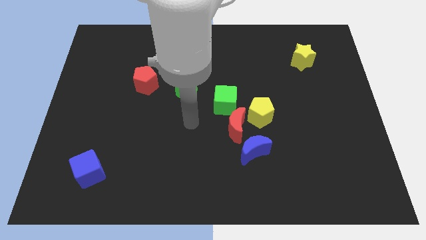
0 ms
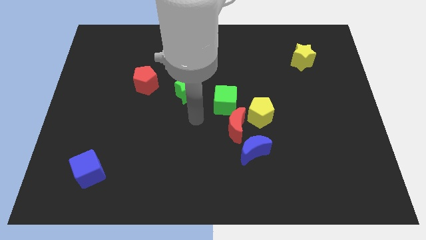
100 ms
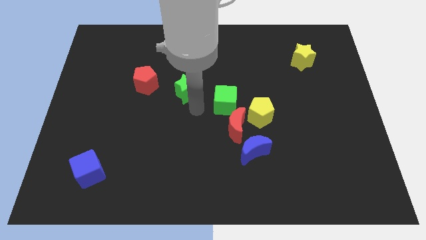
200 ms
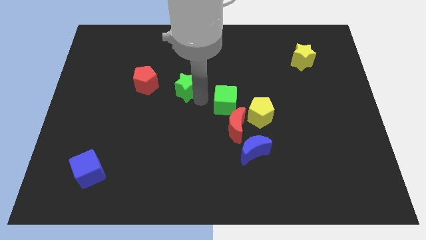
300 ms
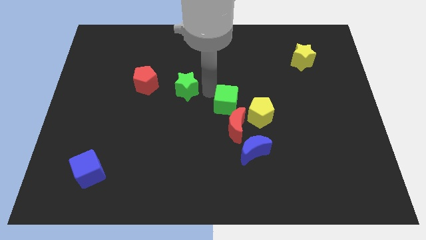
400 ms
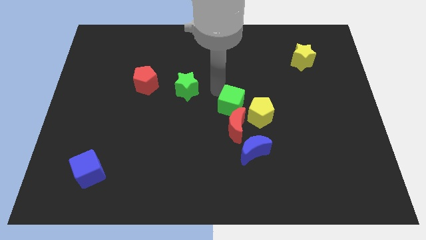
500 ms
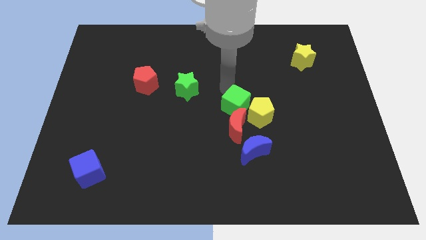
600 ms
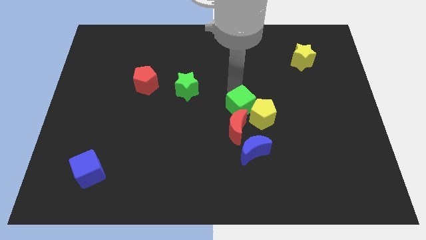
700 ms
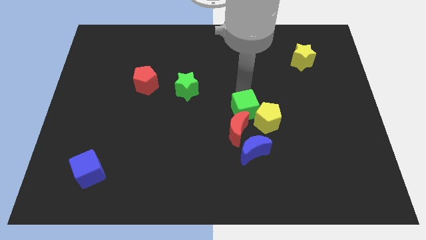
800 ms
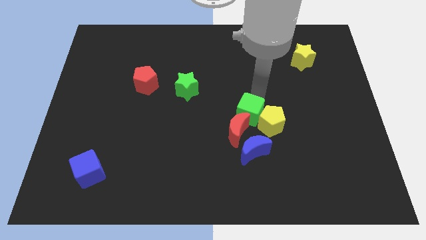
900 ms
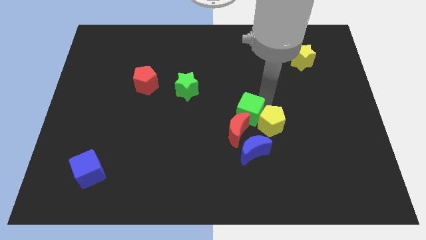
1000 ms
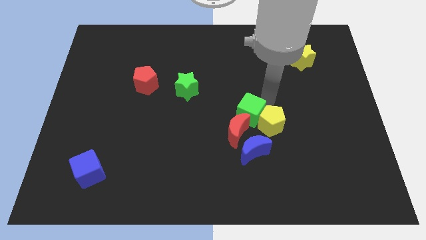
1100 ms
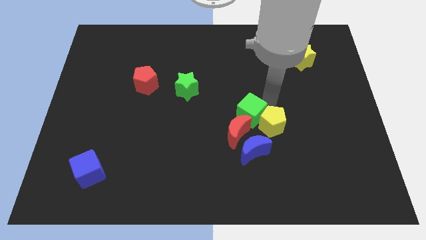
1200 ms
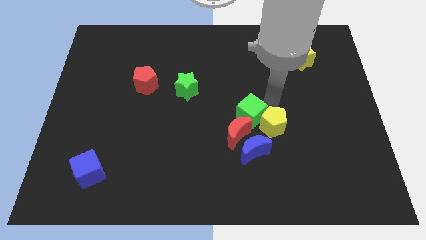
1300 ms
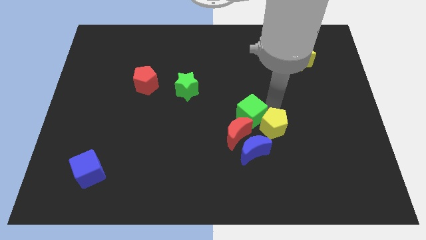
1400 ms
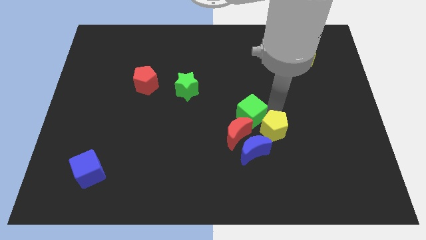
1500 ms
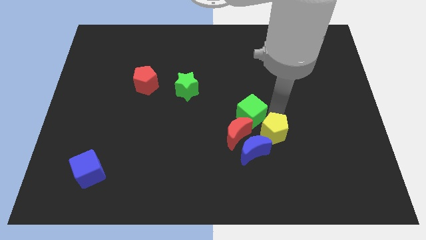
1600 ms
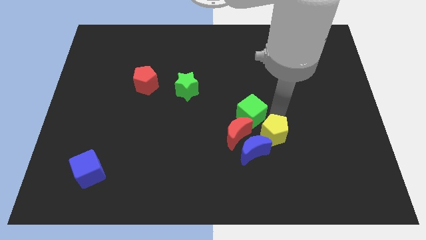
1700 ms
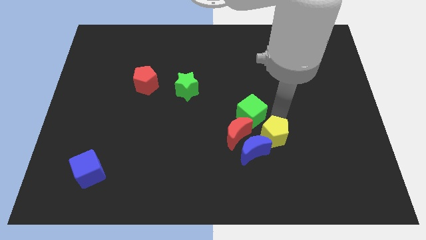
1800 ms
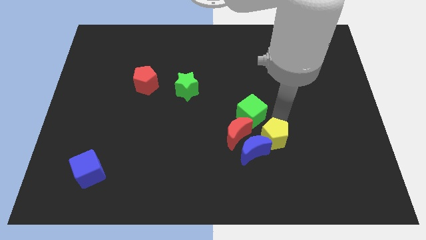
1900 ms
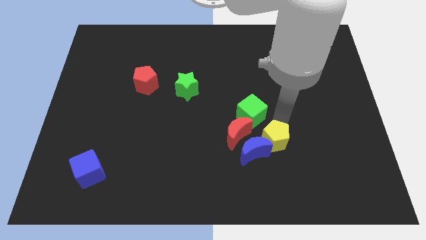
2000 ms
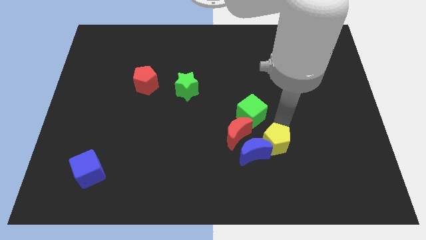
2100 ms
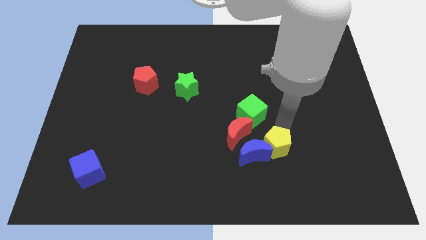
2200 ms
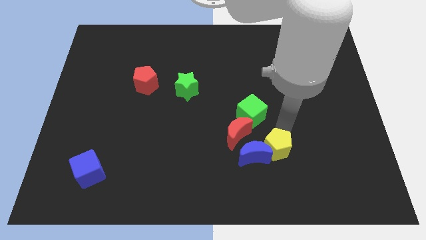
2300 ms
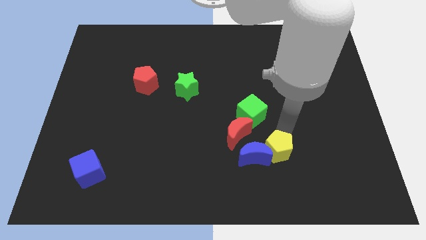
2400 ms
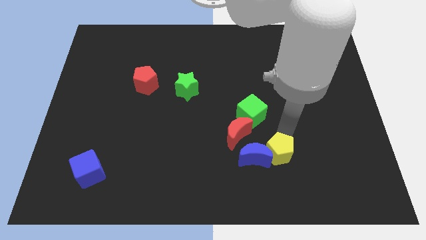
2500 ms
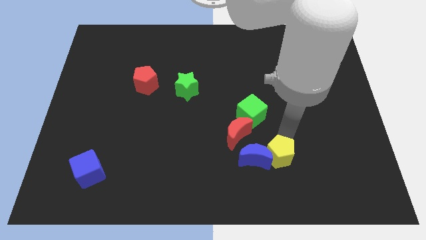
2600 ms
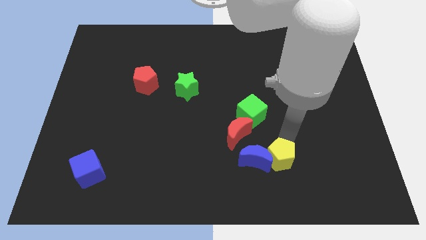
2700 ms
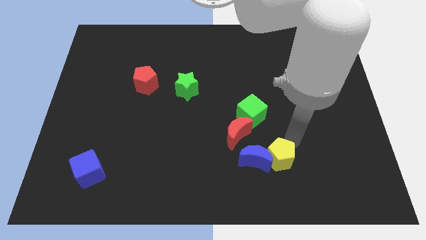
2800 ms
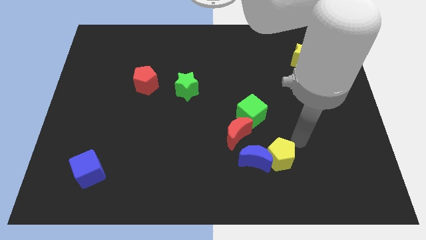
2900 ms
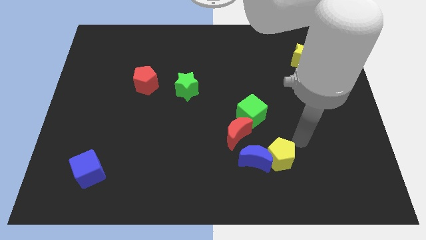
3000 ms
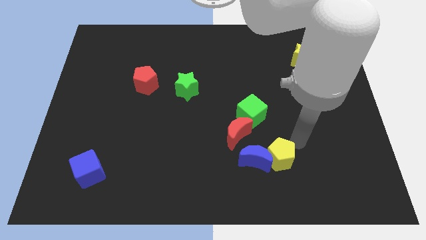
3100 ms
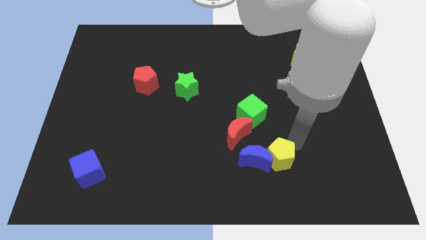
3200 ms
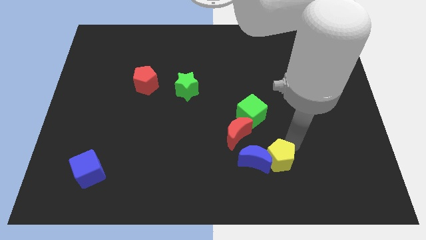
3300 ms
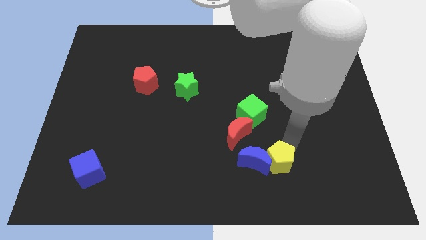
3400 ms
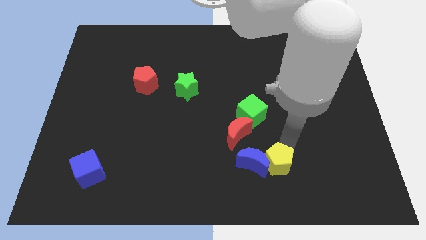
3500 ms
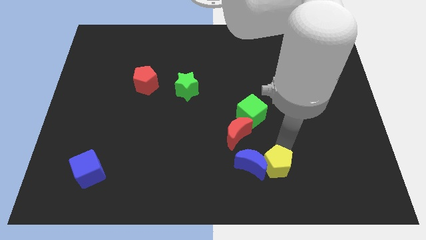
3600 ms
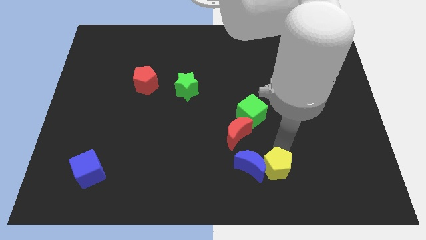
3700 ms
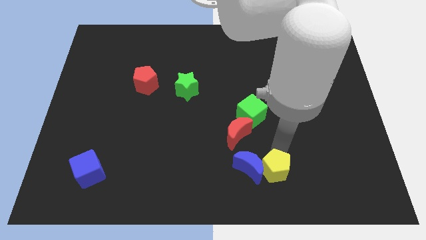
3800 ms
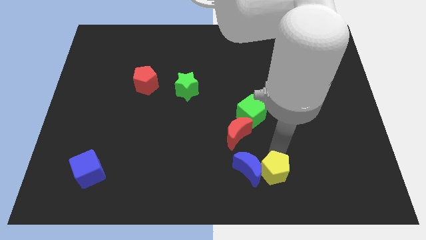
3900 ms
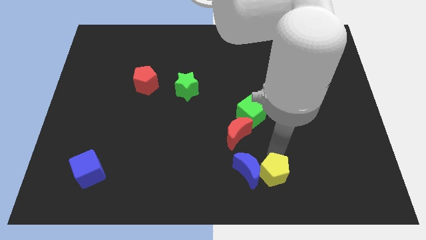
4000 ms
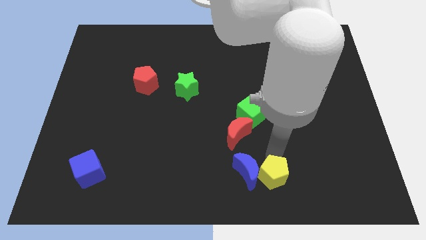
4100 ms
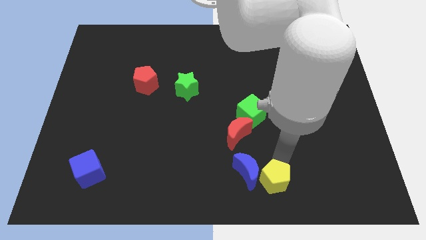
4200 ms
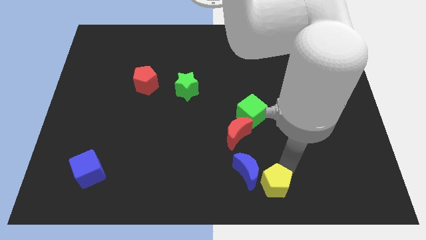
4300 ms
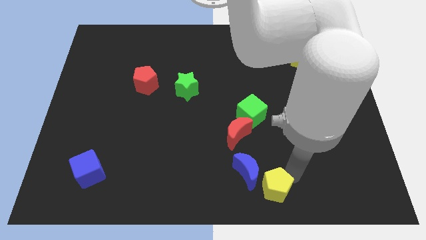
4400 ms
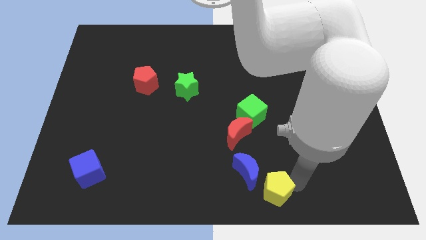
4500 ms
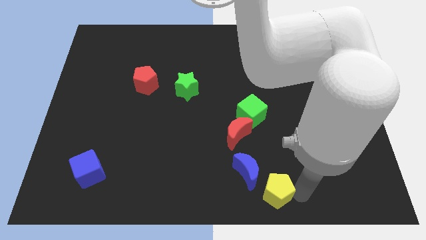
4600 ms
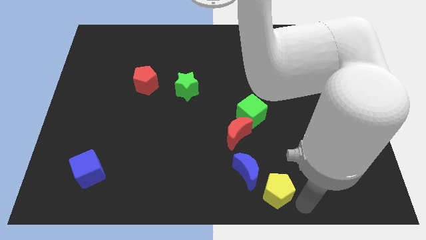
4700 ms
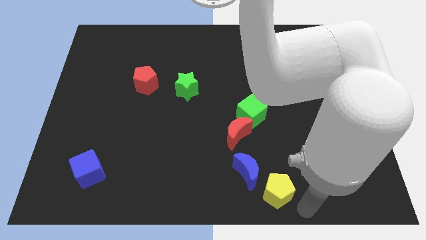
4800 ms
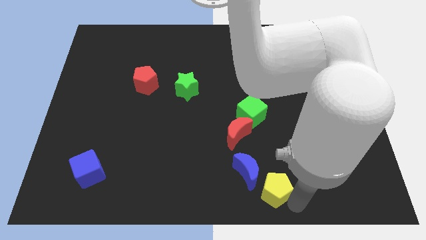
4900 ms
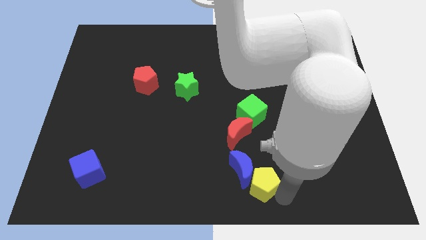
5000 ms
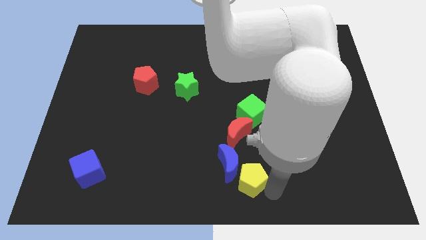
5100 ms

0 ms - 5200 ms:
push the yellow pentagon somewhat down and to the left diagonally

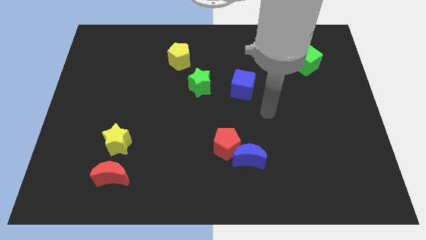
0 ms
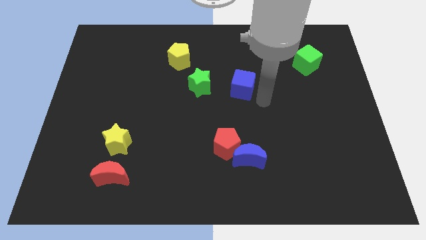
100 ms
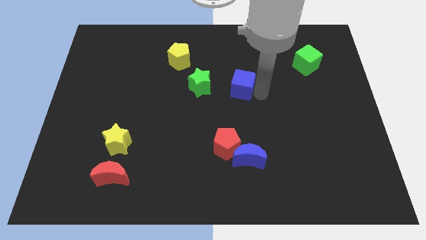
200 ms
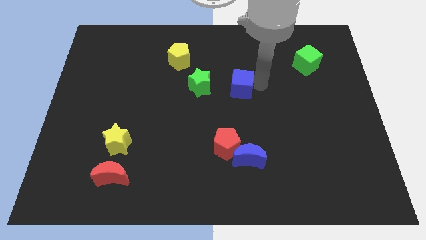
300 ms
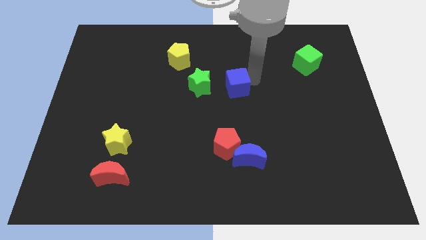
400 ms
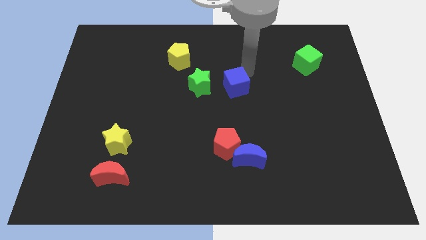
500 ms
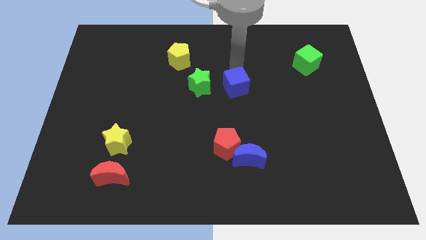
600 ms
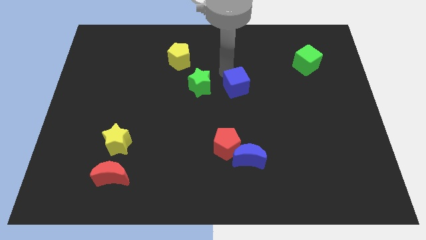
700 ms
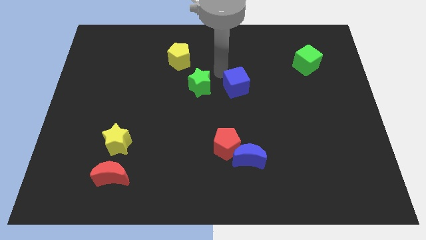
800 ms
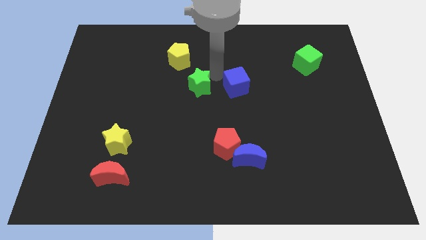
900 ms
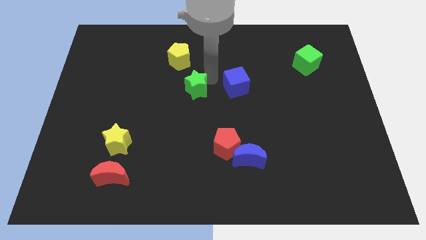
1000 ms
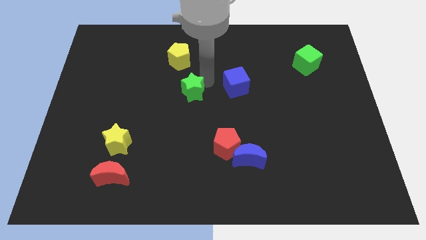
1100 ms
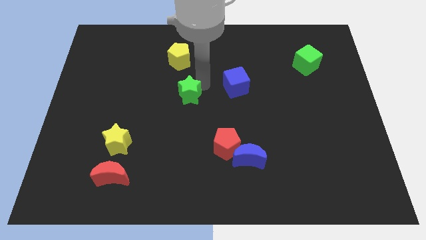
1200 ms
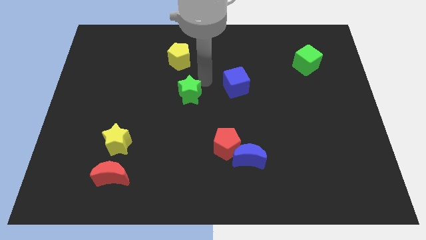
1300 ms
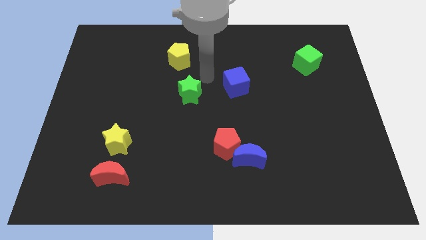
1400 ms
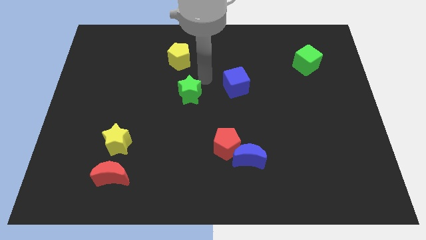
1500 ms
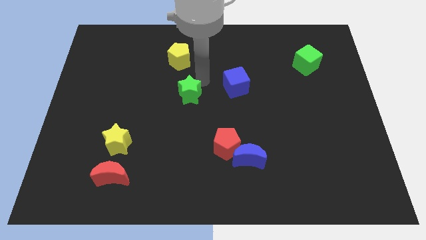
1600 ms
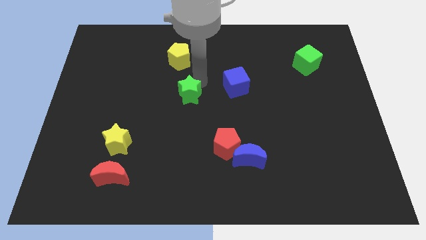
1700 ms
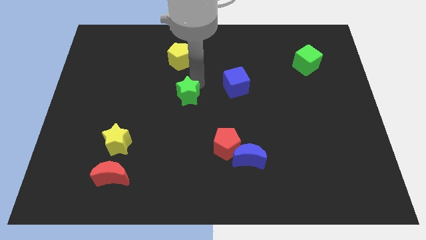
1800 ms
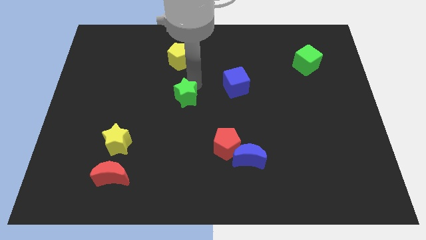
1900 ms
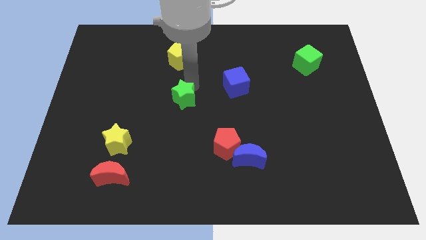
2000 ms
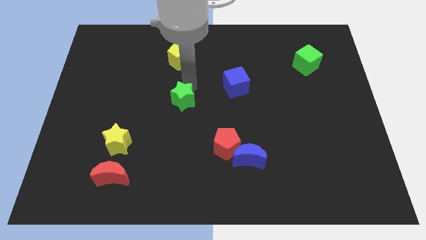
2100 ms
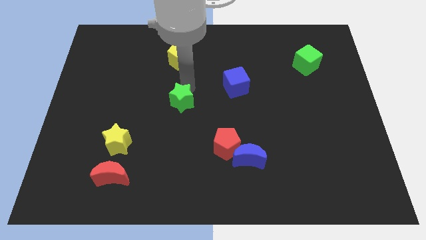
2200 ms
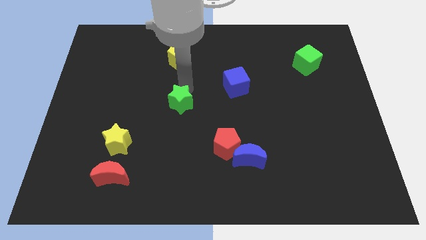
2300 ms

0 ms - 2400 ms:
slightly slide the green star diagonally downwards and to the left

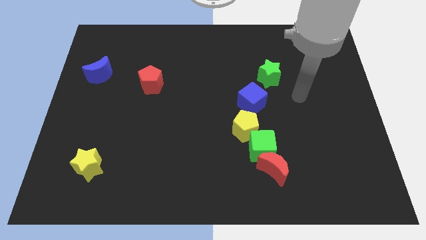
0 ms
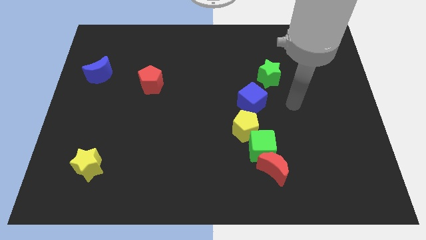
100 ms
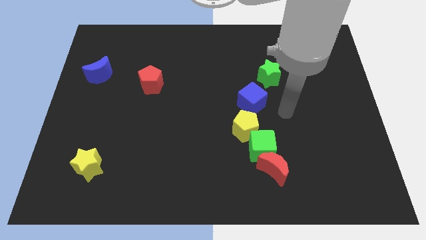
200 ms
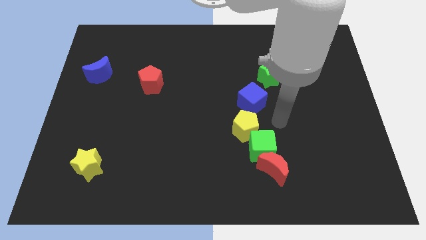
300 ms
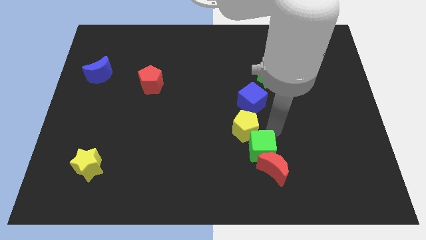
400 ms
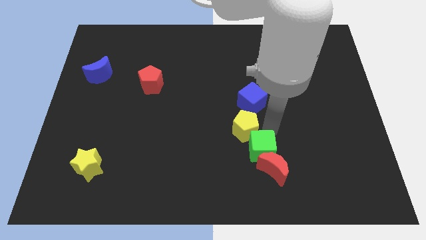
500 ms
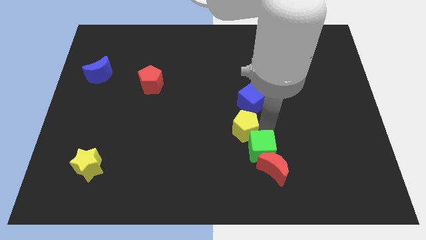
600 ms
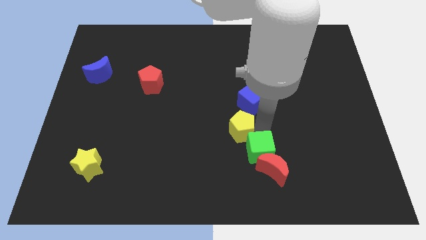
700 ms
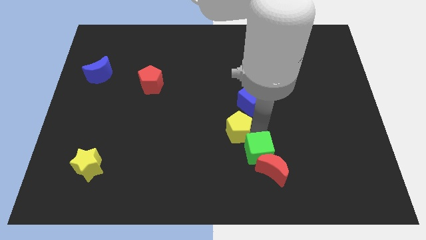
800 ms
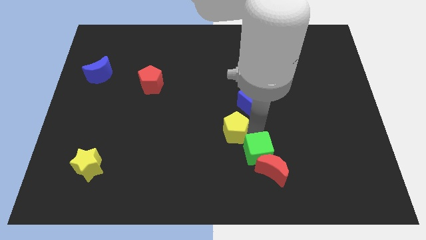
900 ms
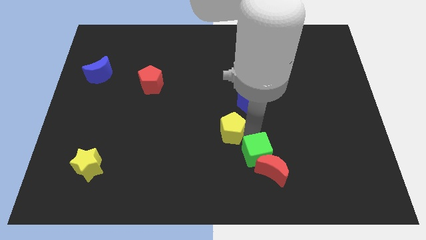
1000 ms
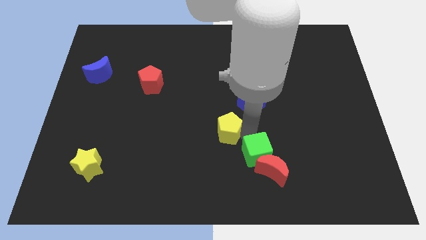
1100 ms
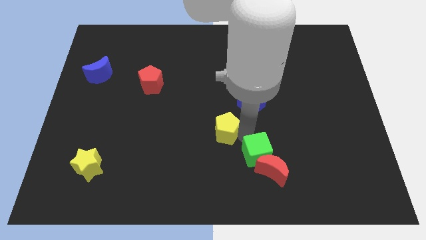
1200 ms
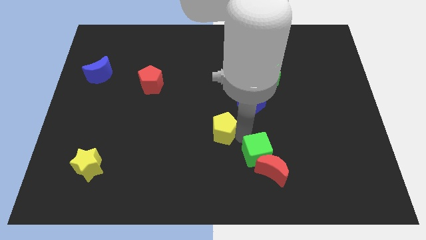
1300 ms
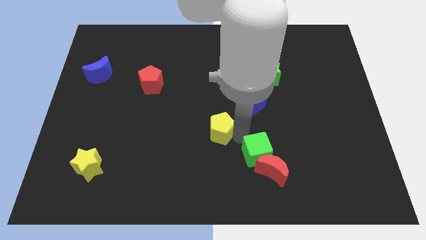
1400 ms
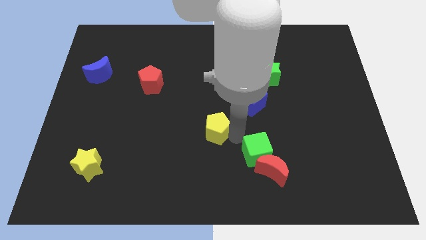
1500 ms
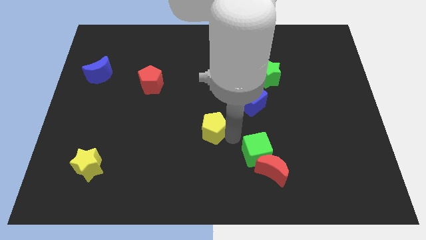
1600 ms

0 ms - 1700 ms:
move the yellow pentagon to the left a little bit
